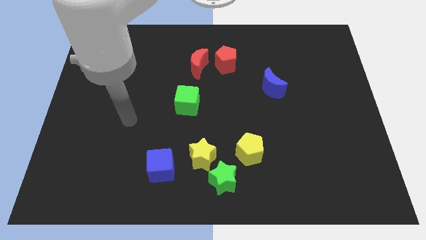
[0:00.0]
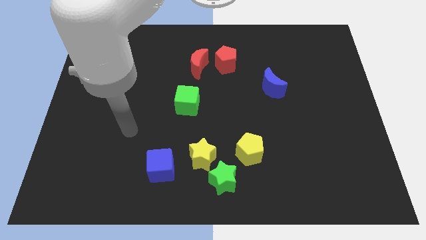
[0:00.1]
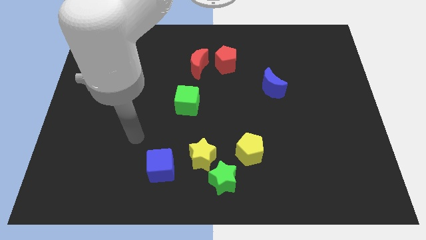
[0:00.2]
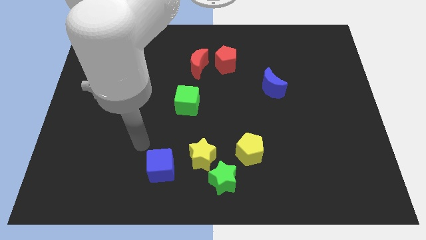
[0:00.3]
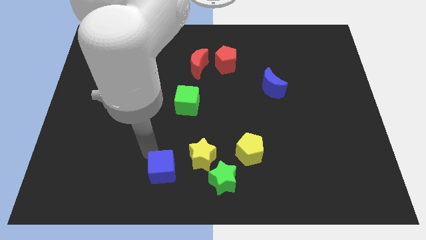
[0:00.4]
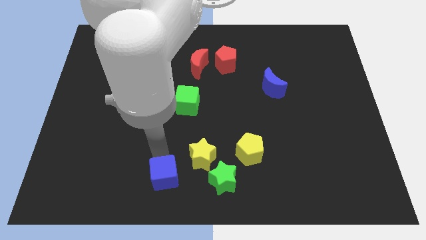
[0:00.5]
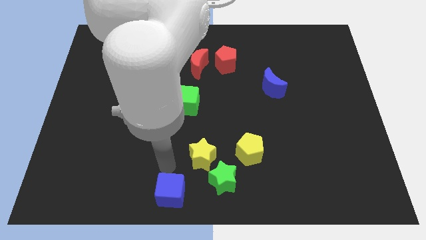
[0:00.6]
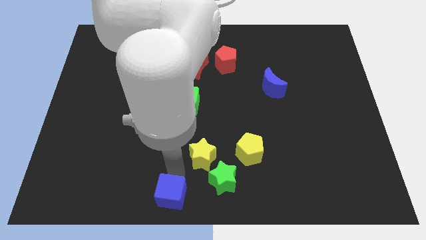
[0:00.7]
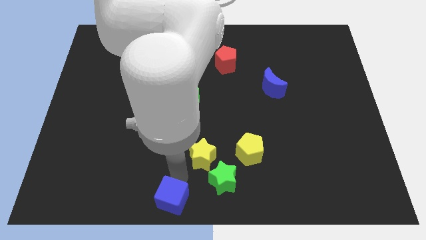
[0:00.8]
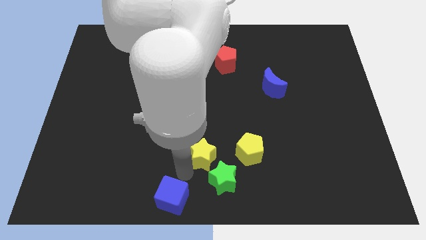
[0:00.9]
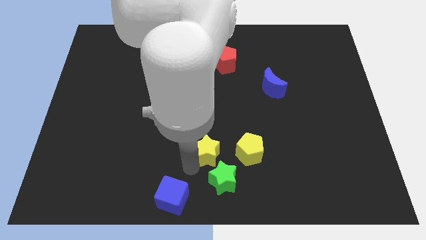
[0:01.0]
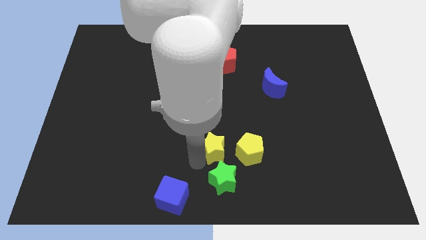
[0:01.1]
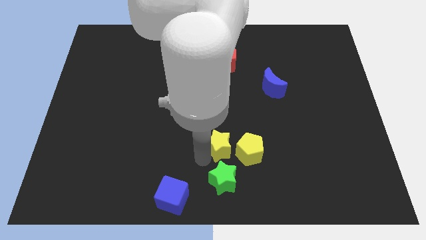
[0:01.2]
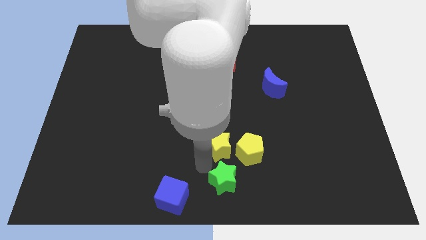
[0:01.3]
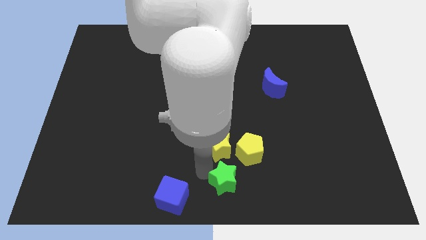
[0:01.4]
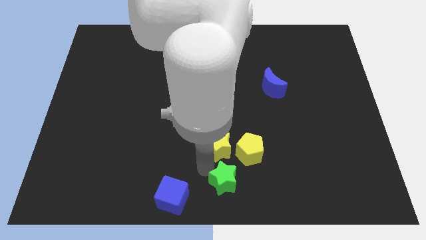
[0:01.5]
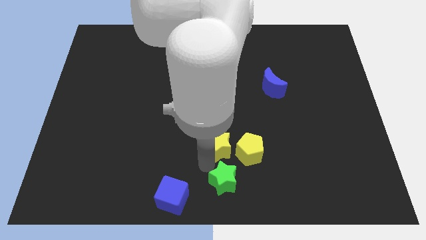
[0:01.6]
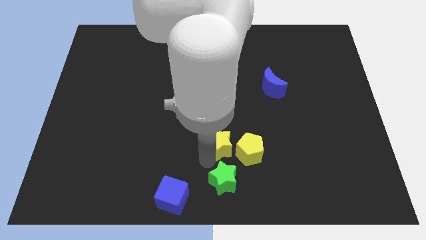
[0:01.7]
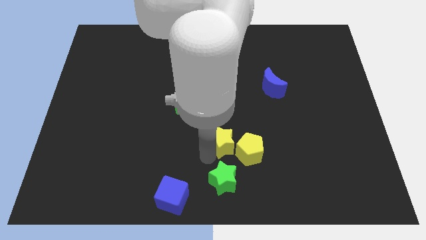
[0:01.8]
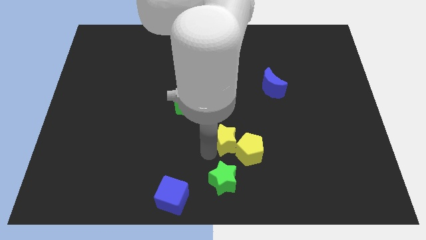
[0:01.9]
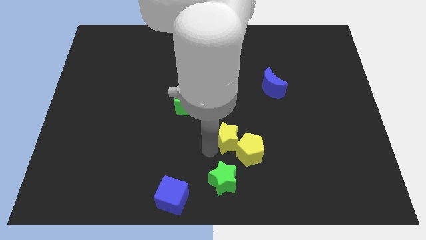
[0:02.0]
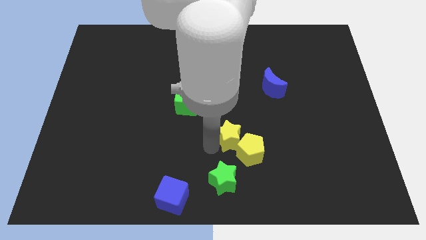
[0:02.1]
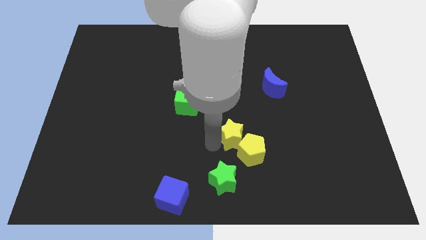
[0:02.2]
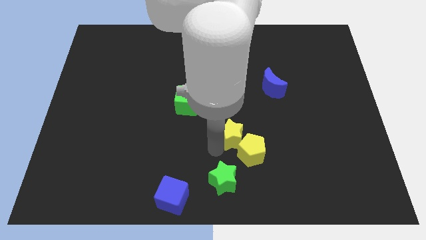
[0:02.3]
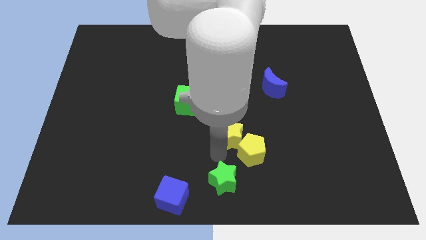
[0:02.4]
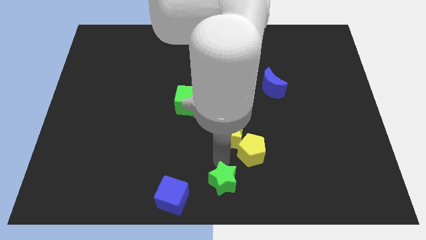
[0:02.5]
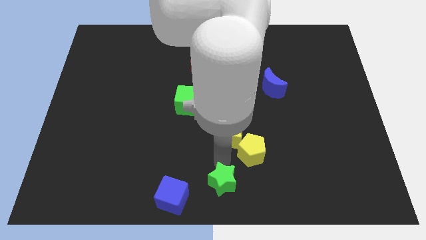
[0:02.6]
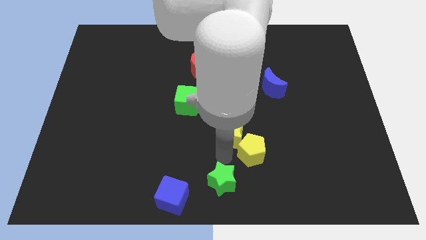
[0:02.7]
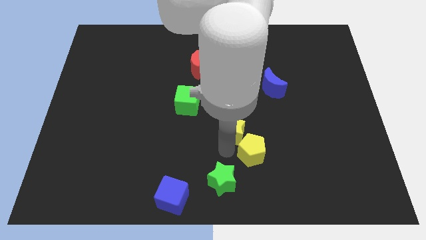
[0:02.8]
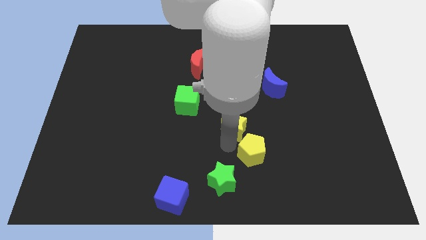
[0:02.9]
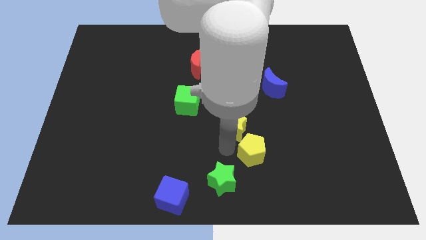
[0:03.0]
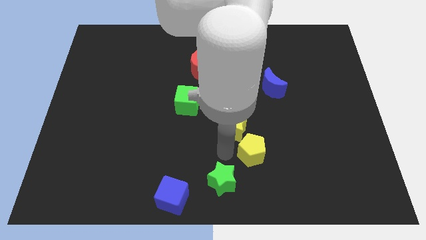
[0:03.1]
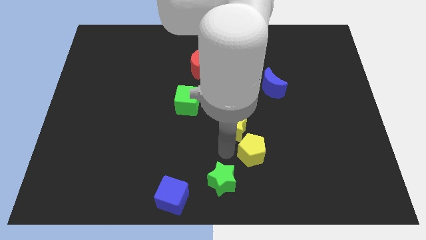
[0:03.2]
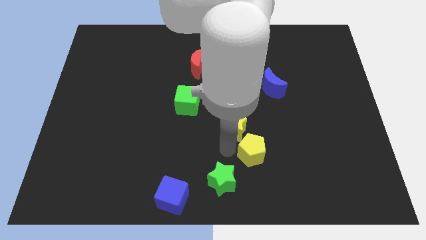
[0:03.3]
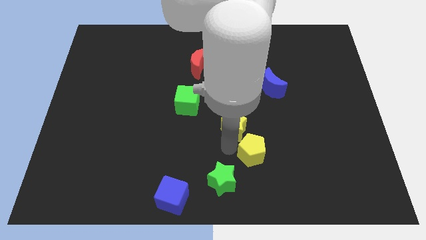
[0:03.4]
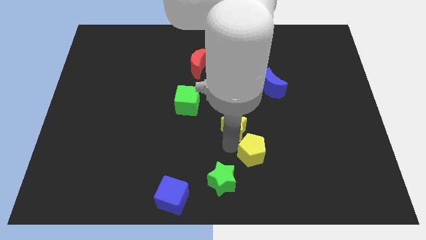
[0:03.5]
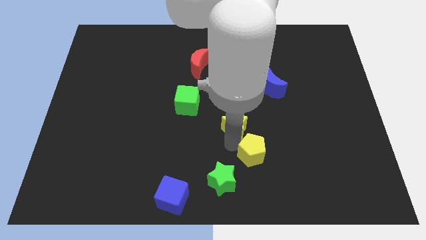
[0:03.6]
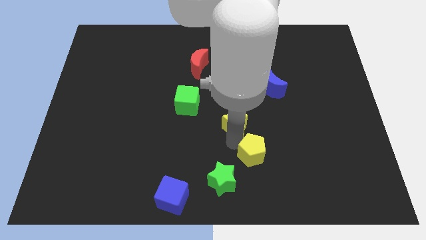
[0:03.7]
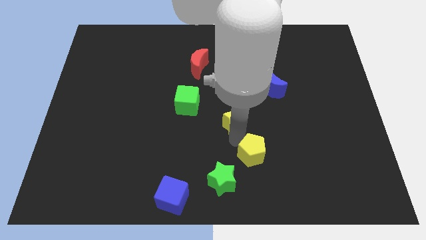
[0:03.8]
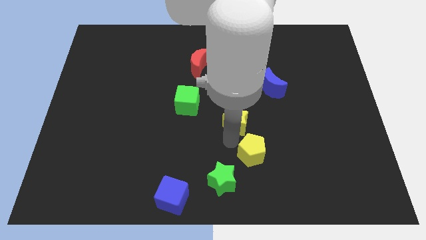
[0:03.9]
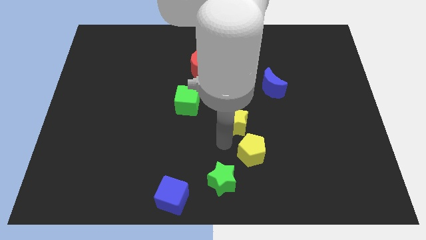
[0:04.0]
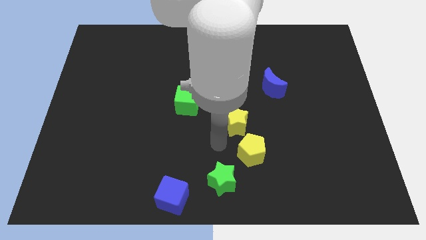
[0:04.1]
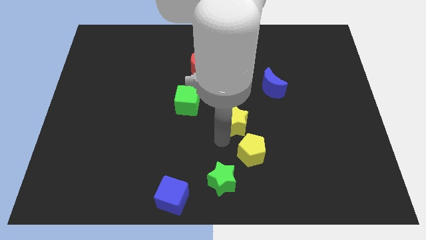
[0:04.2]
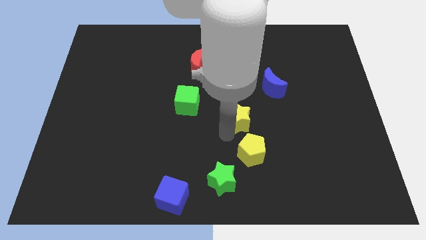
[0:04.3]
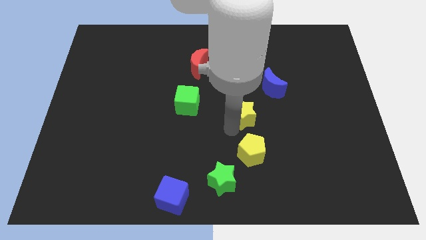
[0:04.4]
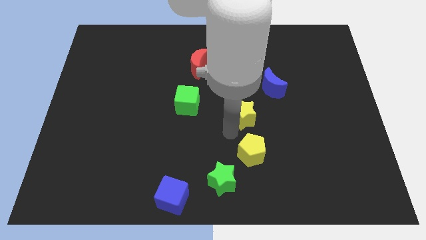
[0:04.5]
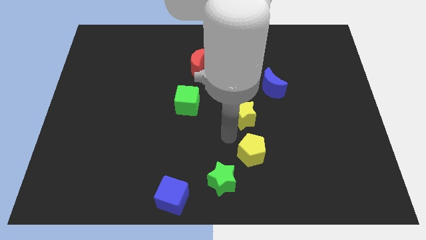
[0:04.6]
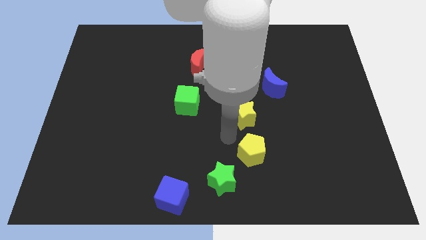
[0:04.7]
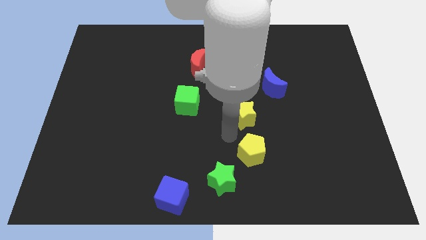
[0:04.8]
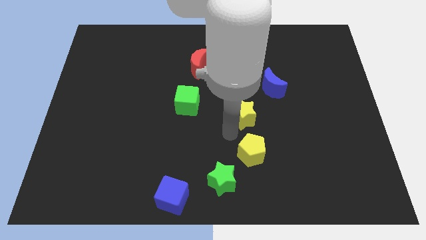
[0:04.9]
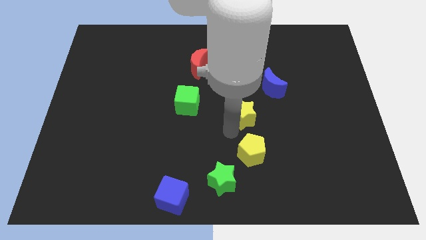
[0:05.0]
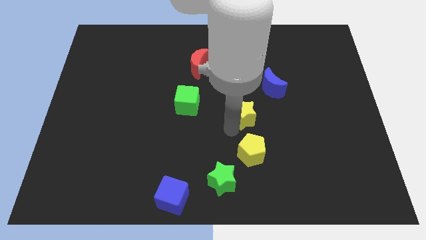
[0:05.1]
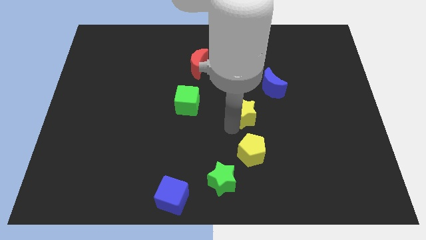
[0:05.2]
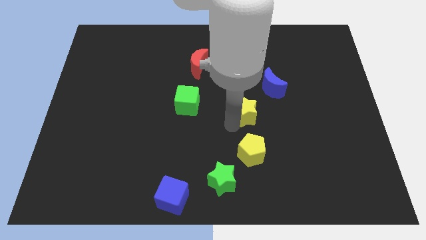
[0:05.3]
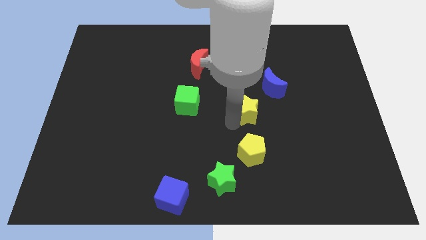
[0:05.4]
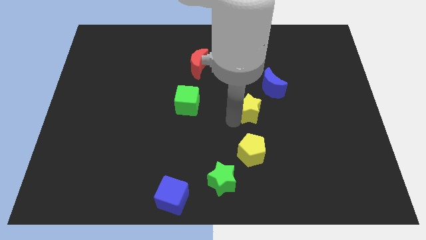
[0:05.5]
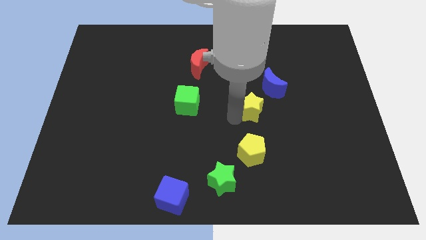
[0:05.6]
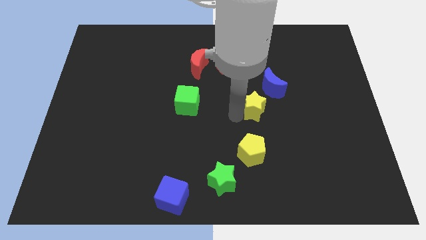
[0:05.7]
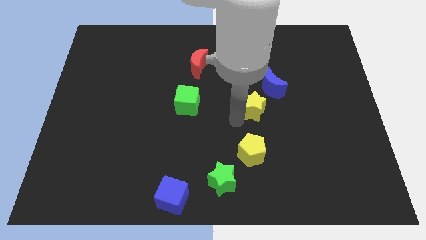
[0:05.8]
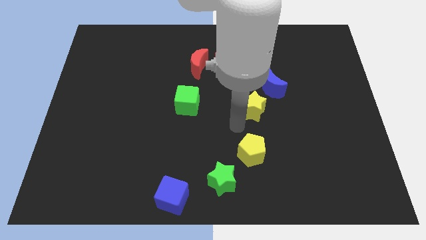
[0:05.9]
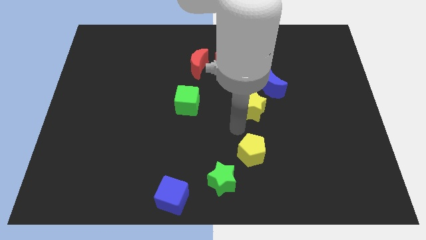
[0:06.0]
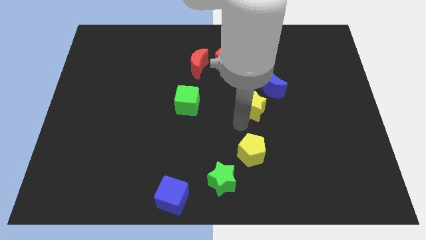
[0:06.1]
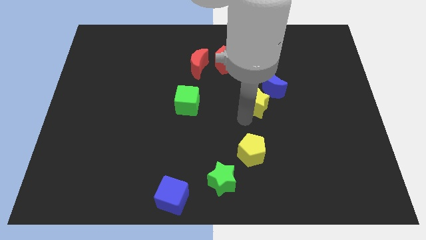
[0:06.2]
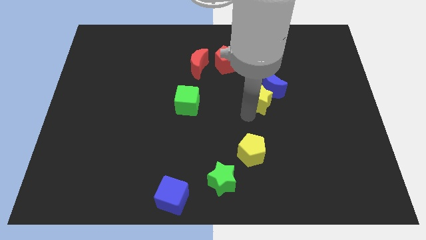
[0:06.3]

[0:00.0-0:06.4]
move the yellow star towards the blue moon
